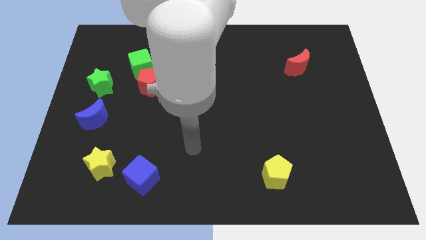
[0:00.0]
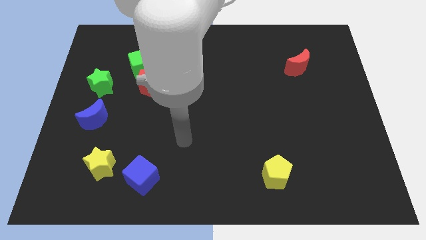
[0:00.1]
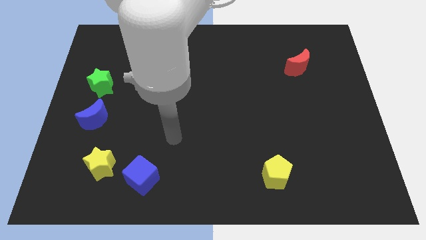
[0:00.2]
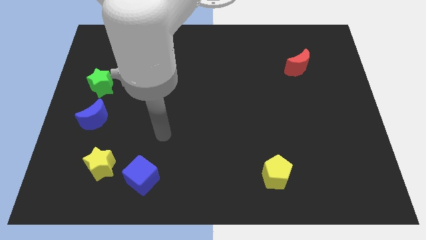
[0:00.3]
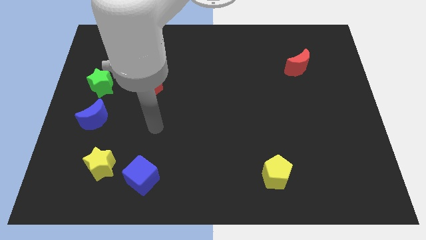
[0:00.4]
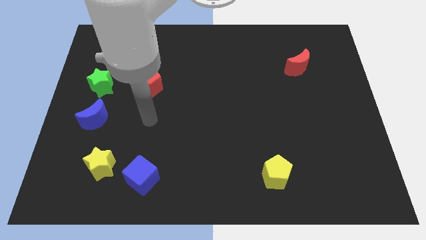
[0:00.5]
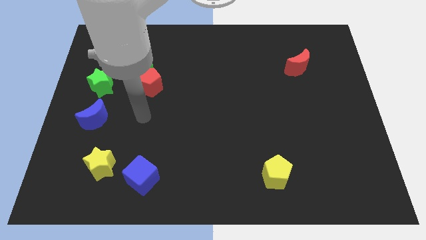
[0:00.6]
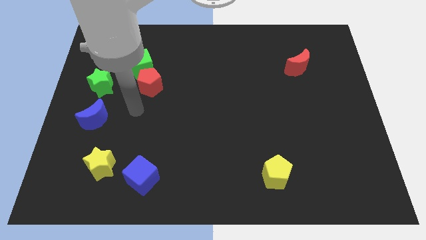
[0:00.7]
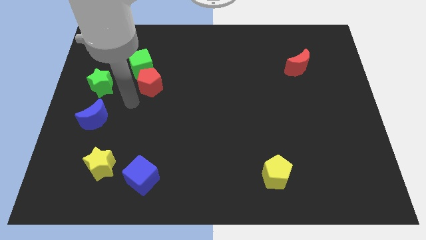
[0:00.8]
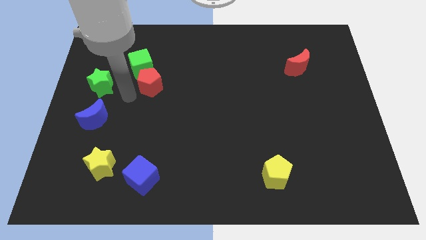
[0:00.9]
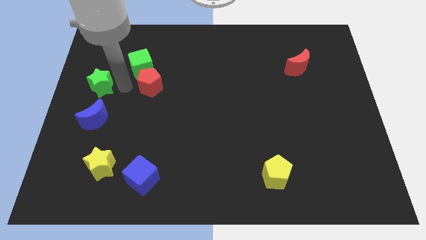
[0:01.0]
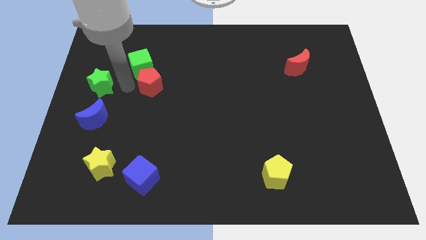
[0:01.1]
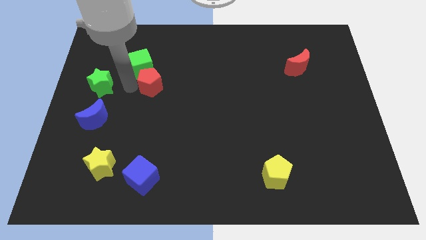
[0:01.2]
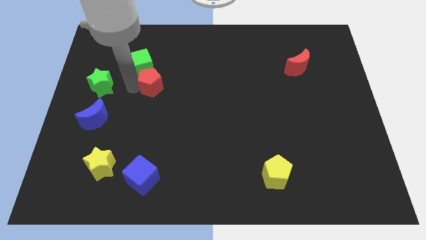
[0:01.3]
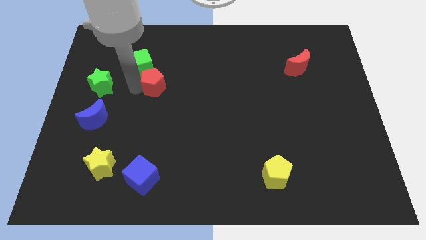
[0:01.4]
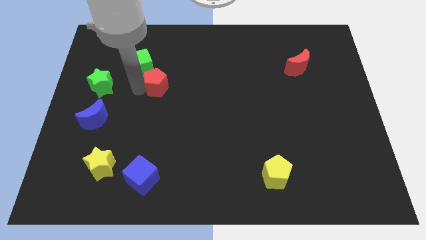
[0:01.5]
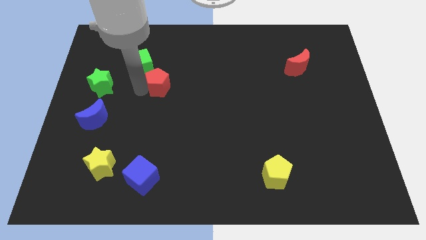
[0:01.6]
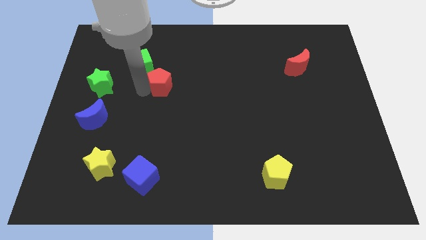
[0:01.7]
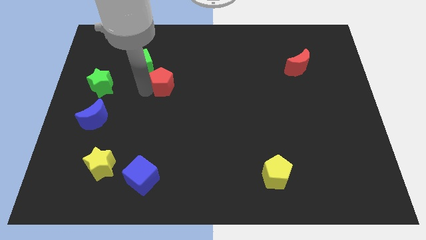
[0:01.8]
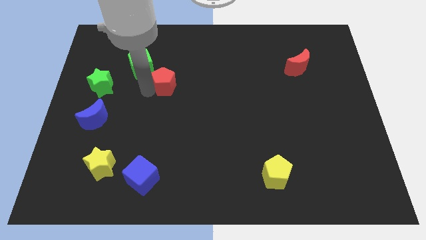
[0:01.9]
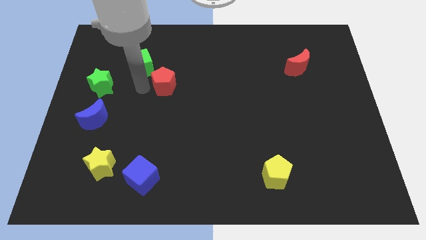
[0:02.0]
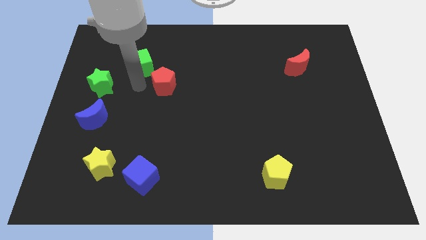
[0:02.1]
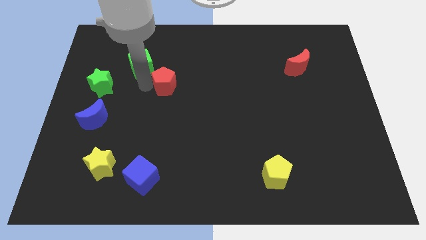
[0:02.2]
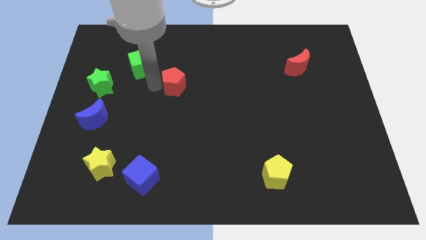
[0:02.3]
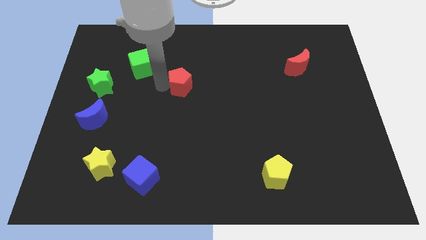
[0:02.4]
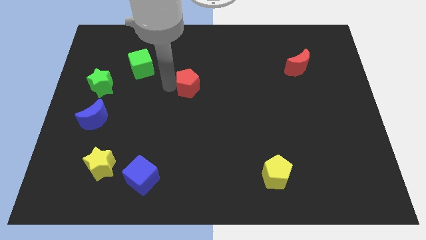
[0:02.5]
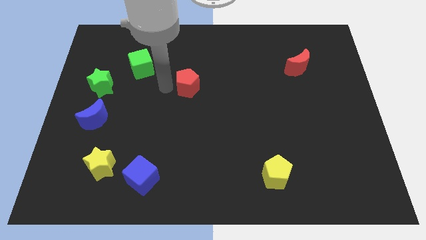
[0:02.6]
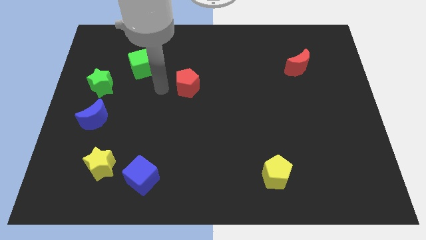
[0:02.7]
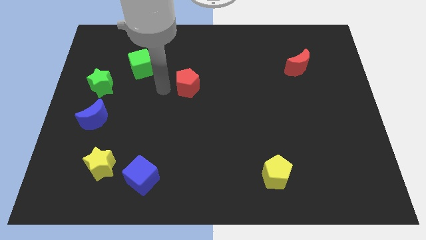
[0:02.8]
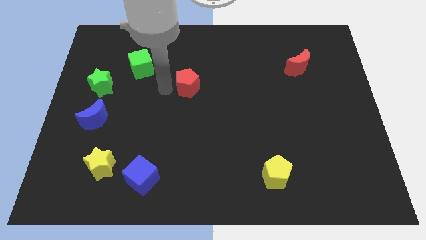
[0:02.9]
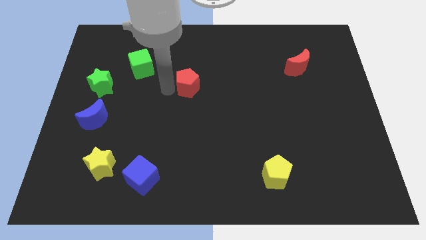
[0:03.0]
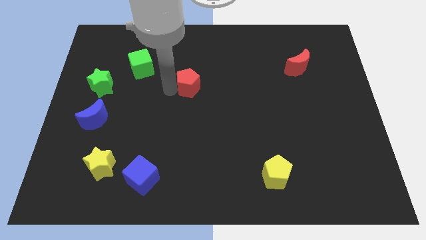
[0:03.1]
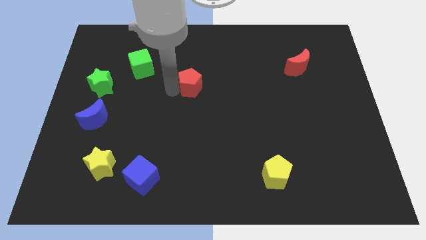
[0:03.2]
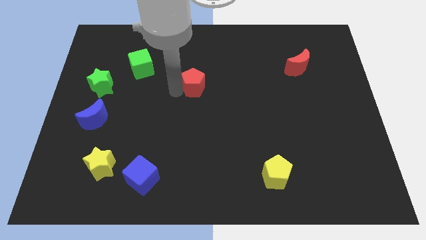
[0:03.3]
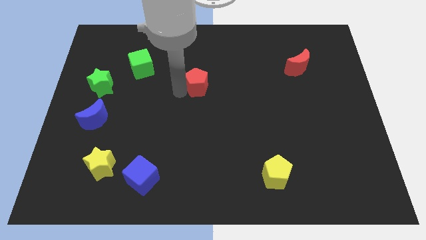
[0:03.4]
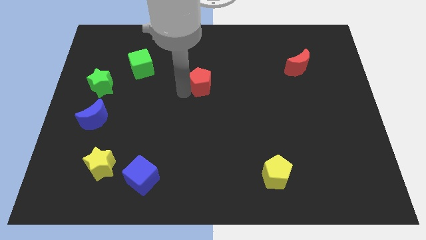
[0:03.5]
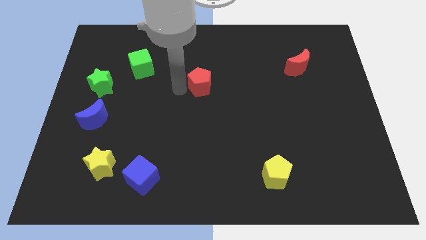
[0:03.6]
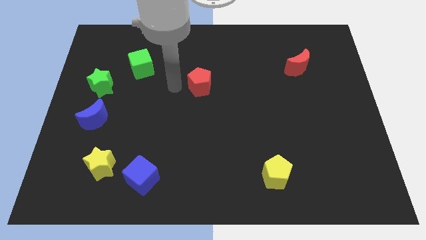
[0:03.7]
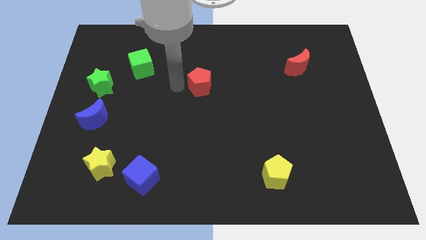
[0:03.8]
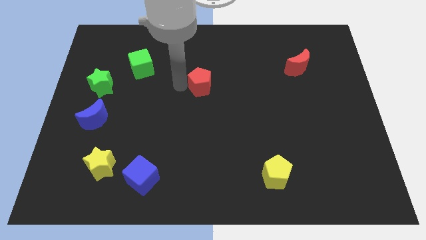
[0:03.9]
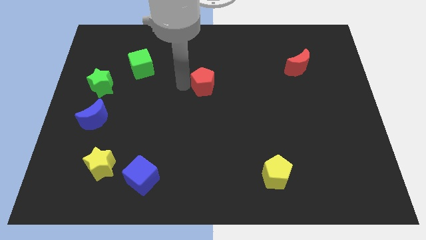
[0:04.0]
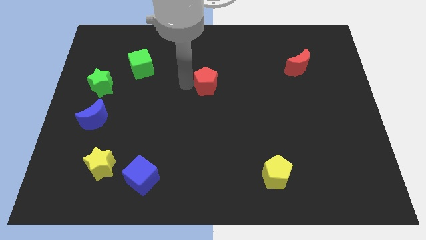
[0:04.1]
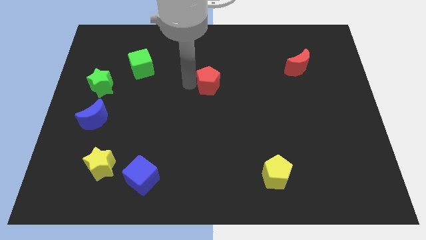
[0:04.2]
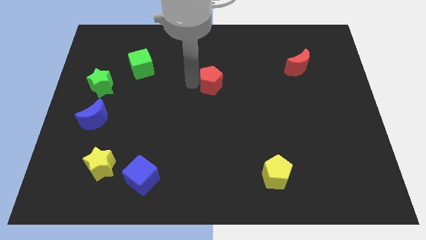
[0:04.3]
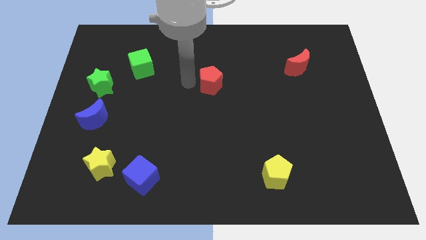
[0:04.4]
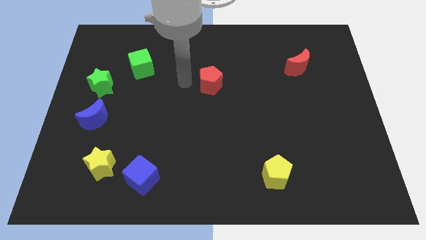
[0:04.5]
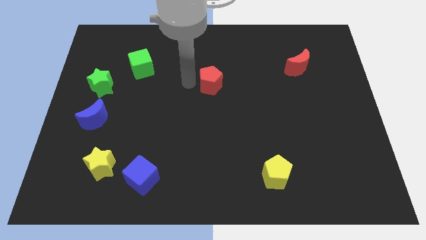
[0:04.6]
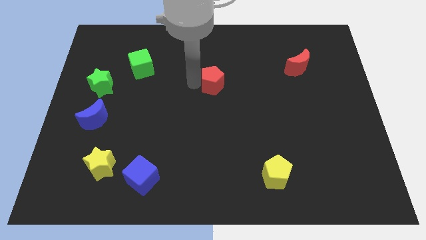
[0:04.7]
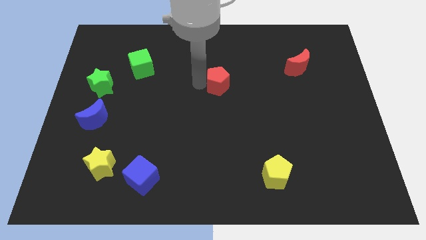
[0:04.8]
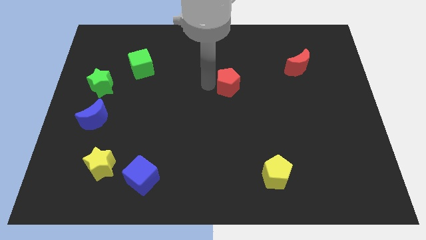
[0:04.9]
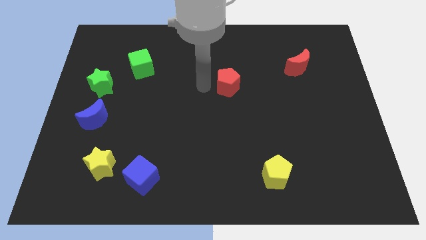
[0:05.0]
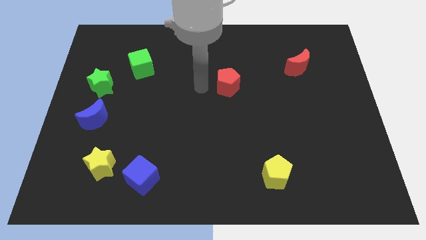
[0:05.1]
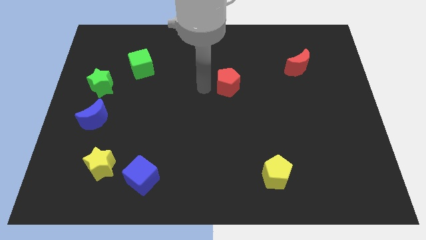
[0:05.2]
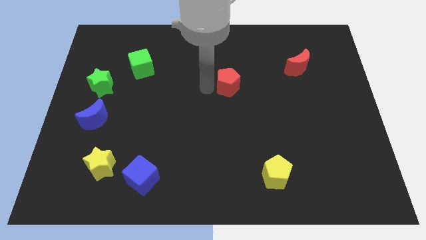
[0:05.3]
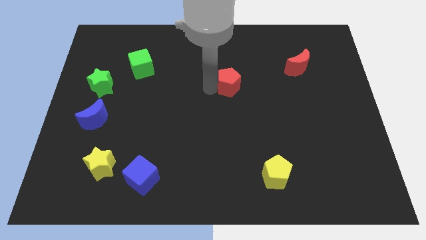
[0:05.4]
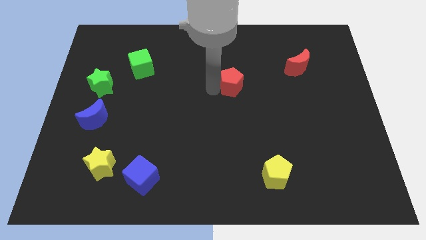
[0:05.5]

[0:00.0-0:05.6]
move the red pentagon to the right

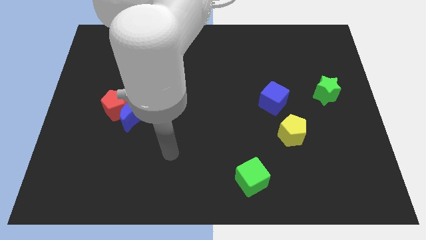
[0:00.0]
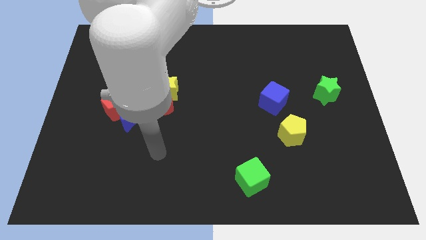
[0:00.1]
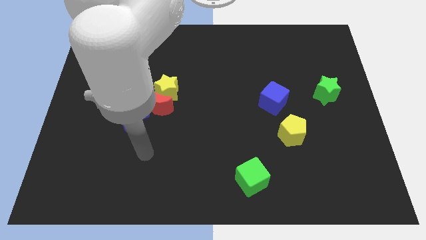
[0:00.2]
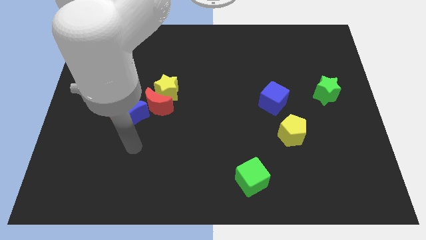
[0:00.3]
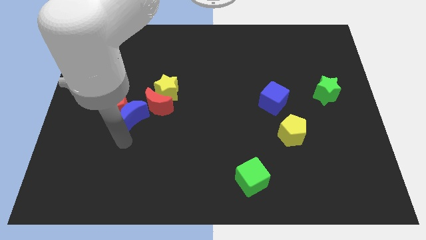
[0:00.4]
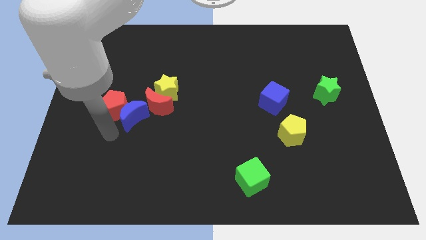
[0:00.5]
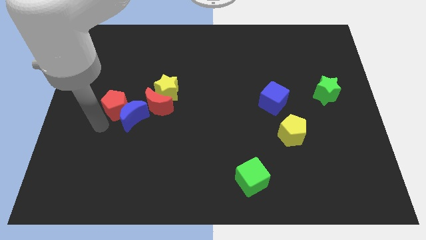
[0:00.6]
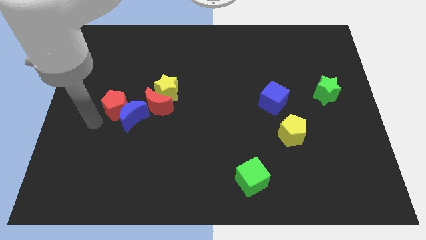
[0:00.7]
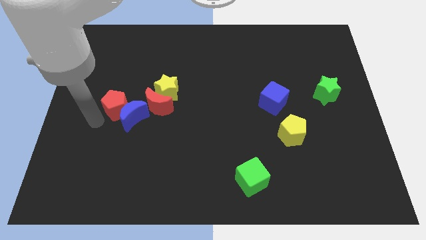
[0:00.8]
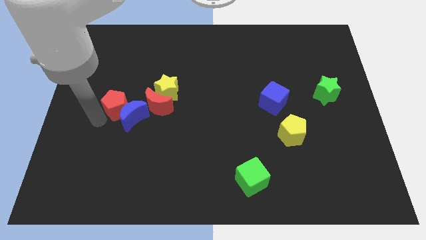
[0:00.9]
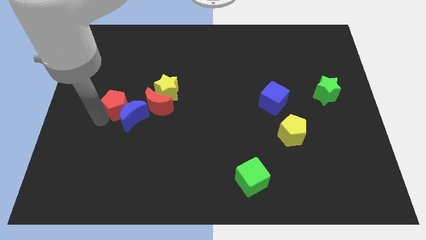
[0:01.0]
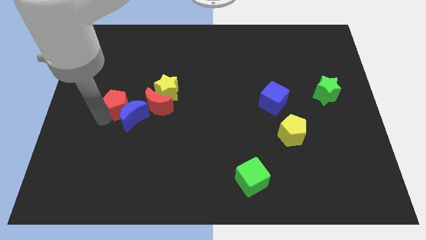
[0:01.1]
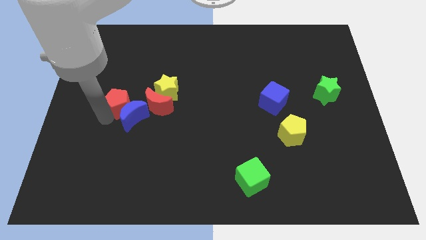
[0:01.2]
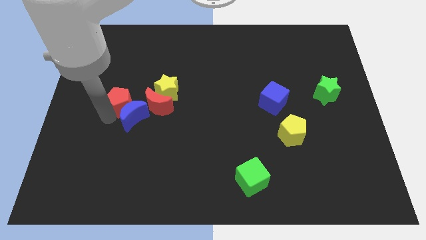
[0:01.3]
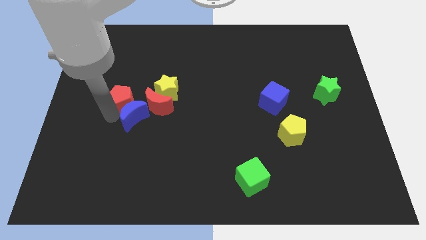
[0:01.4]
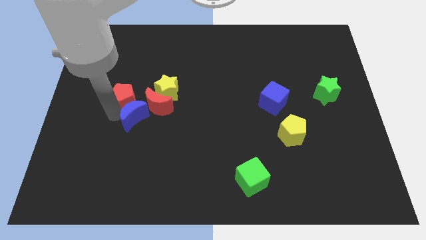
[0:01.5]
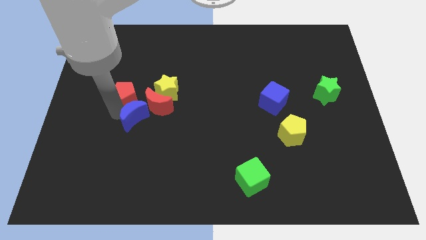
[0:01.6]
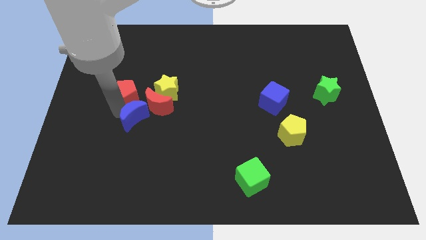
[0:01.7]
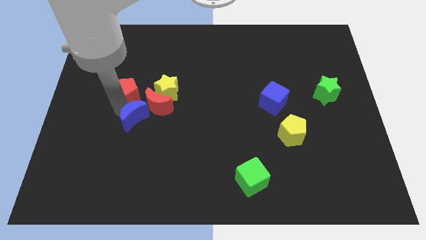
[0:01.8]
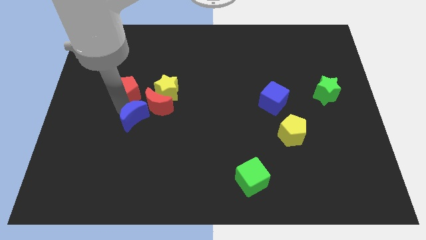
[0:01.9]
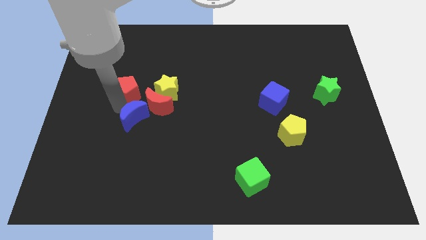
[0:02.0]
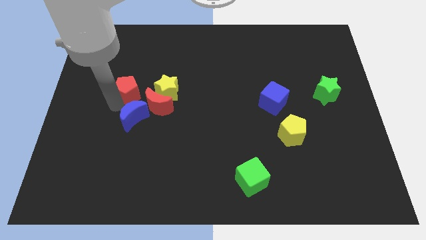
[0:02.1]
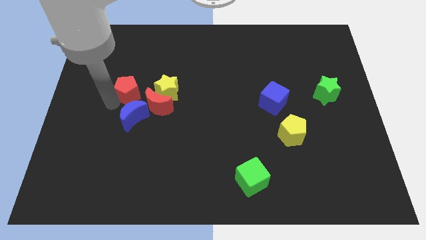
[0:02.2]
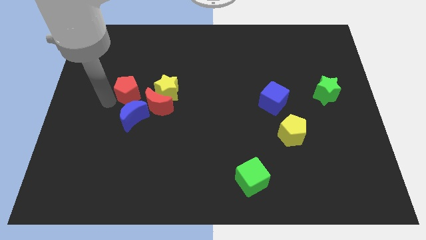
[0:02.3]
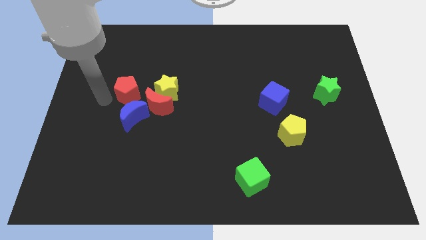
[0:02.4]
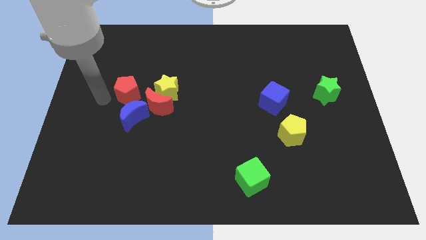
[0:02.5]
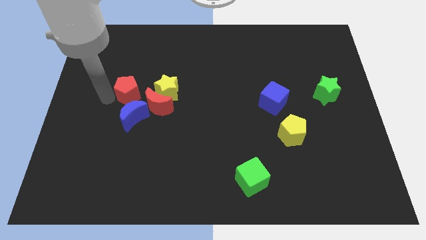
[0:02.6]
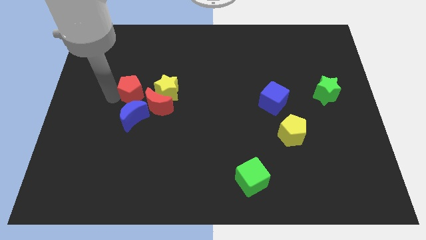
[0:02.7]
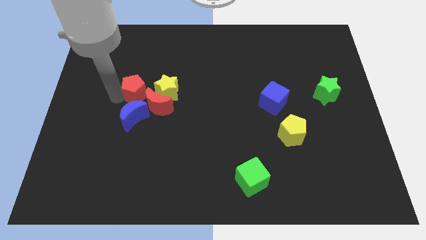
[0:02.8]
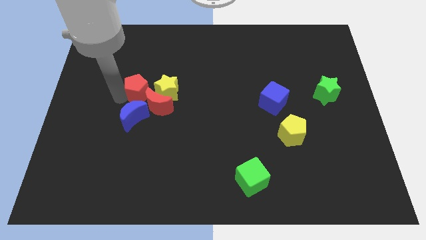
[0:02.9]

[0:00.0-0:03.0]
slightly move the red pentagon up and to the right diagonally
